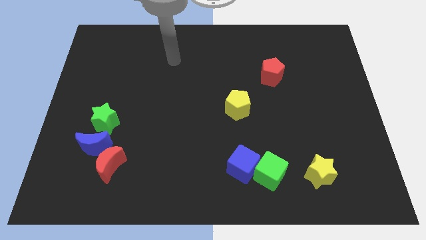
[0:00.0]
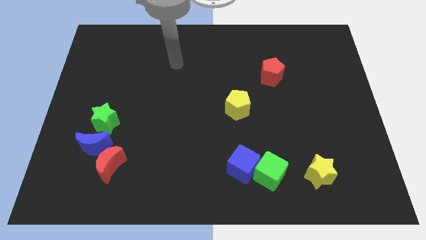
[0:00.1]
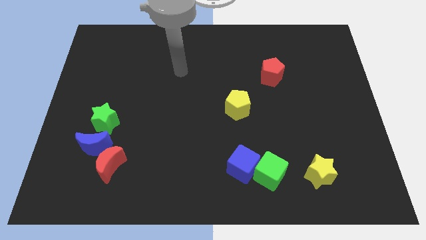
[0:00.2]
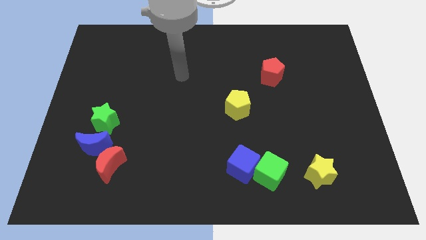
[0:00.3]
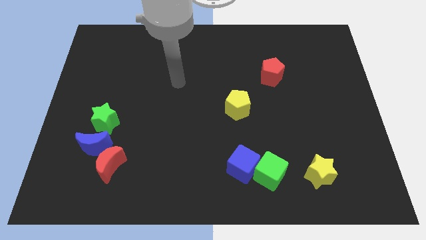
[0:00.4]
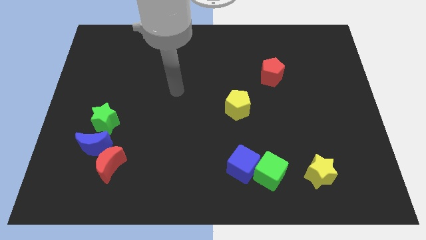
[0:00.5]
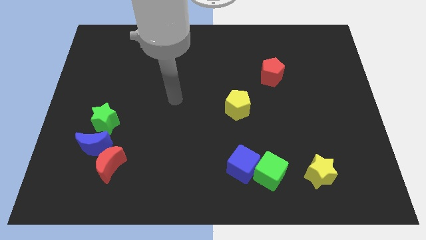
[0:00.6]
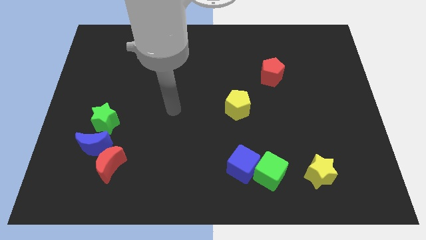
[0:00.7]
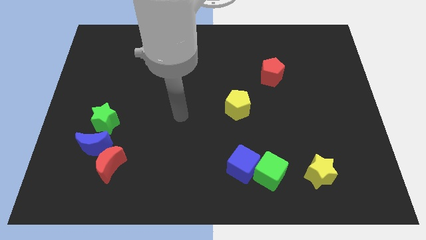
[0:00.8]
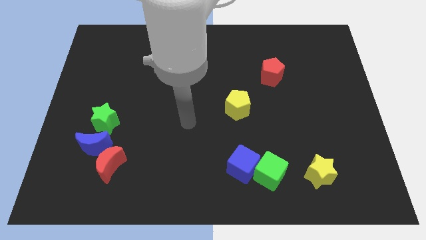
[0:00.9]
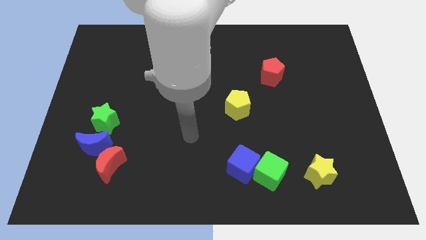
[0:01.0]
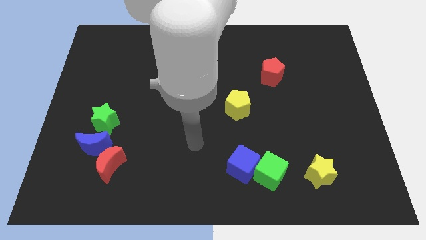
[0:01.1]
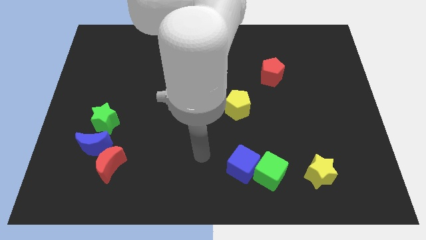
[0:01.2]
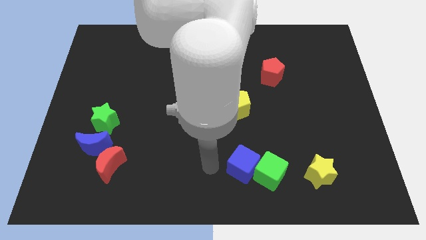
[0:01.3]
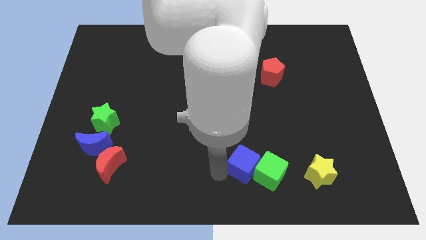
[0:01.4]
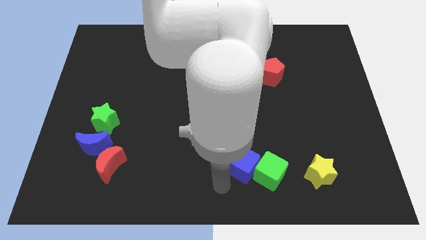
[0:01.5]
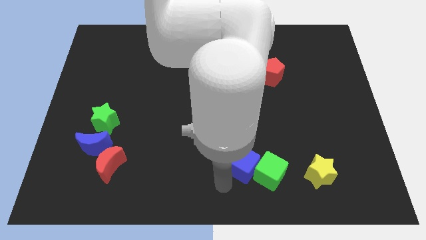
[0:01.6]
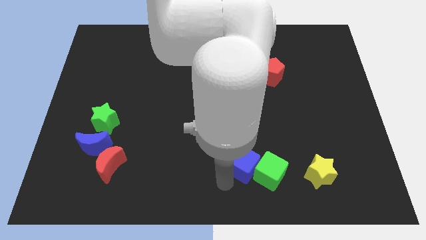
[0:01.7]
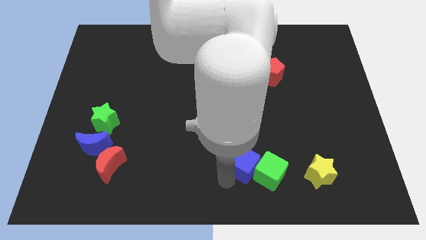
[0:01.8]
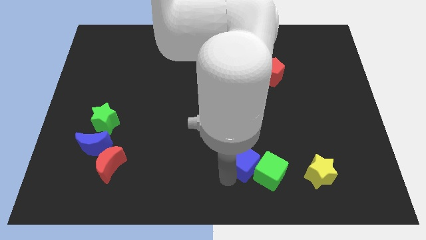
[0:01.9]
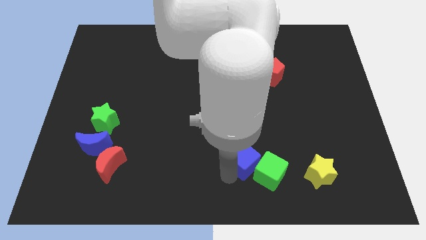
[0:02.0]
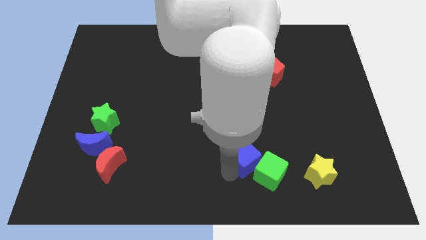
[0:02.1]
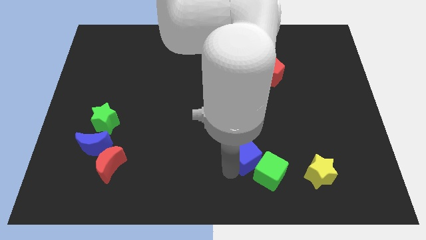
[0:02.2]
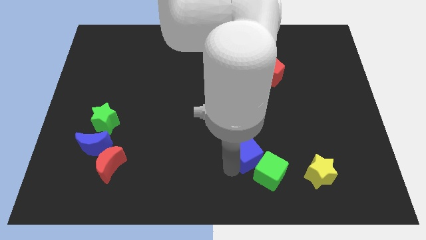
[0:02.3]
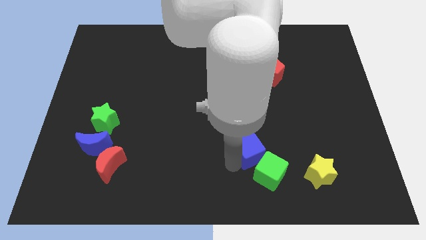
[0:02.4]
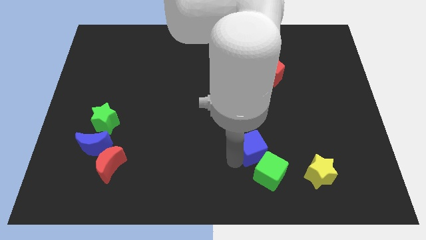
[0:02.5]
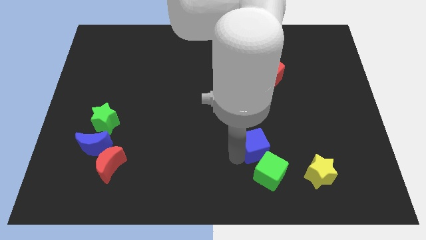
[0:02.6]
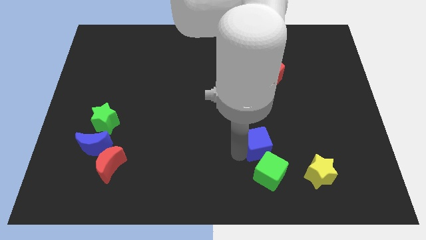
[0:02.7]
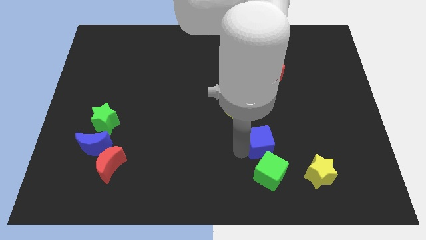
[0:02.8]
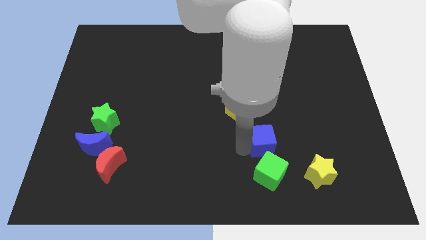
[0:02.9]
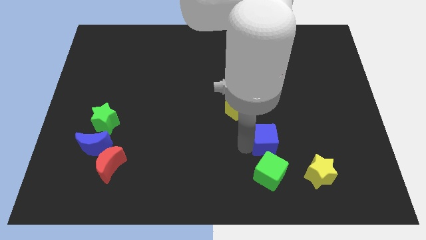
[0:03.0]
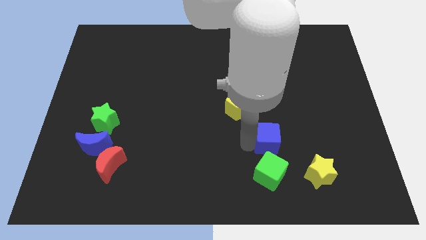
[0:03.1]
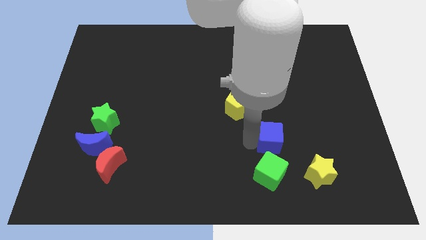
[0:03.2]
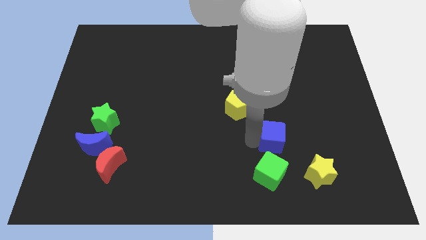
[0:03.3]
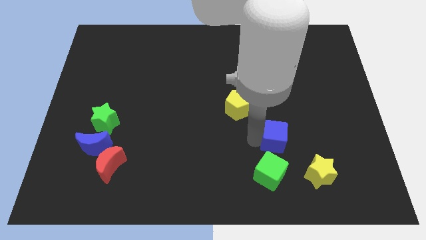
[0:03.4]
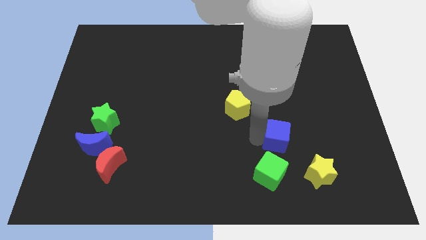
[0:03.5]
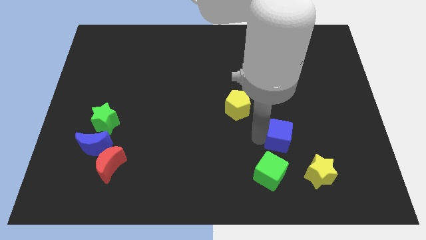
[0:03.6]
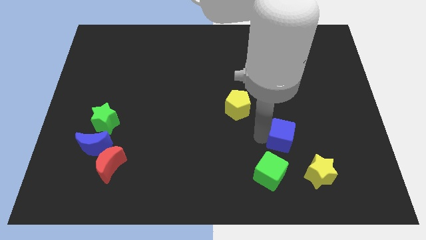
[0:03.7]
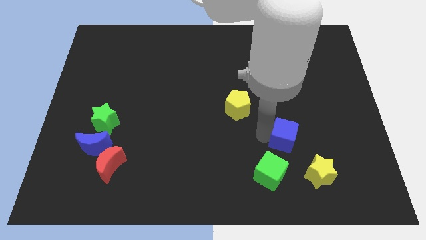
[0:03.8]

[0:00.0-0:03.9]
slide the blue cube a little right

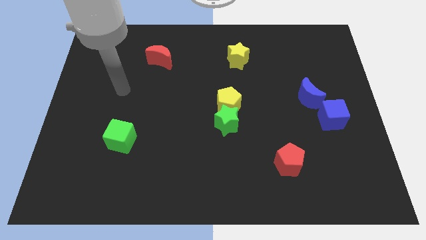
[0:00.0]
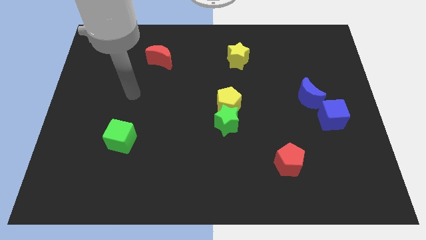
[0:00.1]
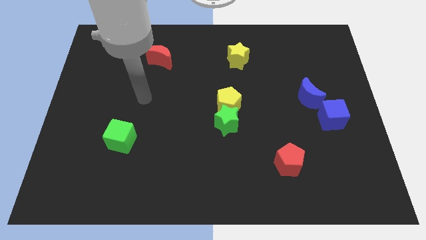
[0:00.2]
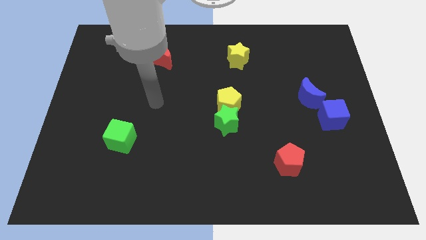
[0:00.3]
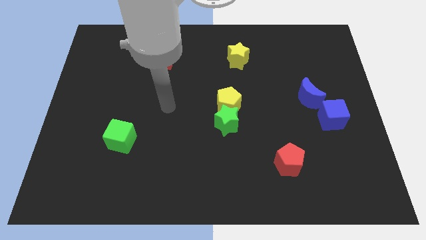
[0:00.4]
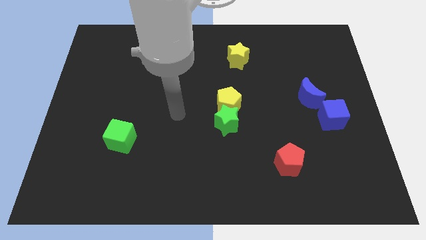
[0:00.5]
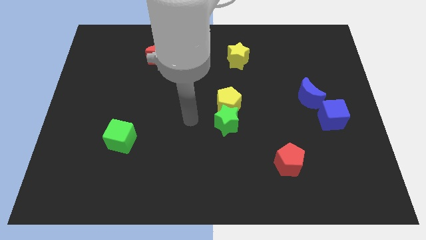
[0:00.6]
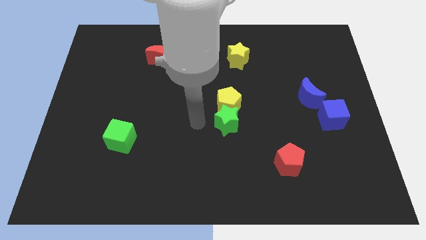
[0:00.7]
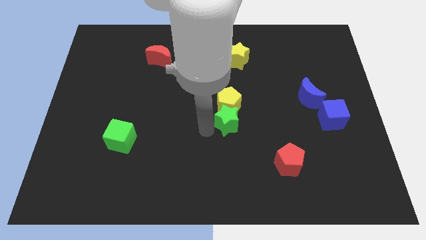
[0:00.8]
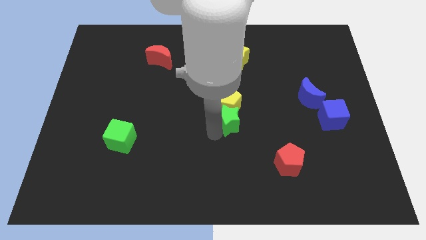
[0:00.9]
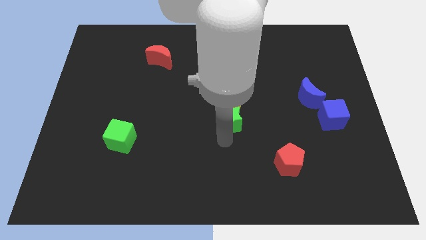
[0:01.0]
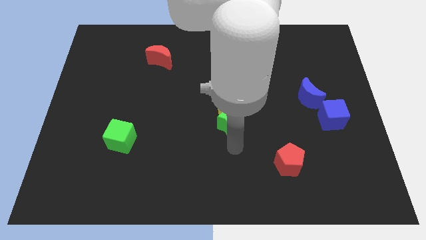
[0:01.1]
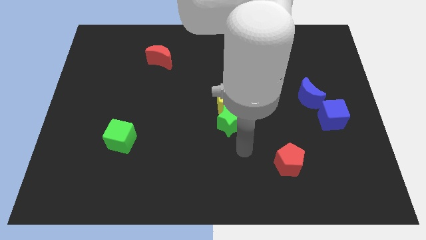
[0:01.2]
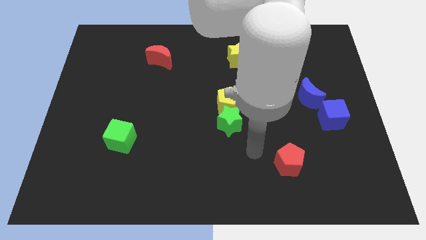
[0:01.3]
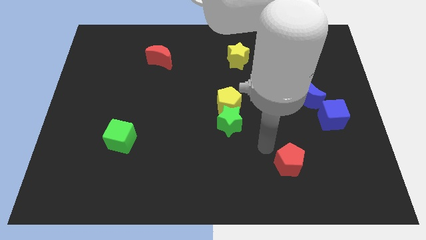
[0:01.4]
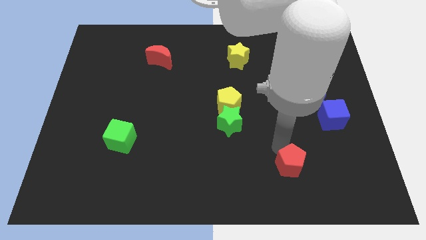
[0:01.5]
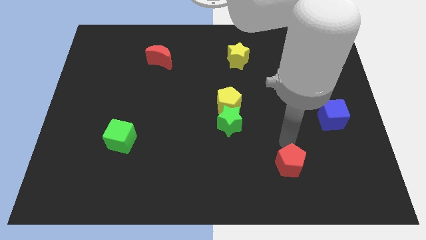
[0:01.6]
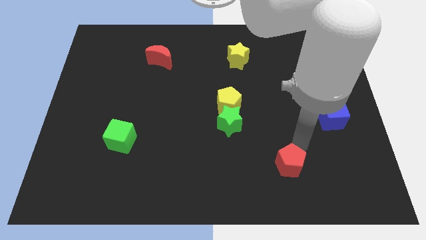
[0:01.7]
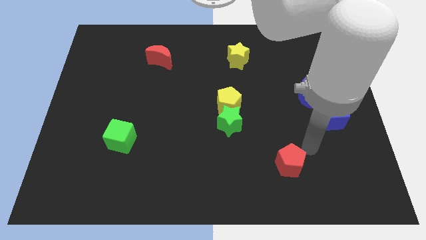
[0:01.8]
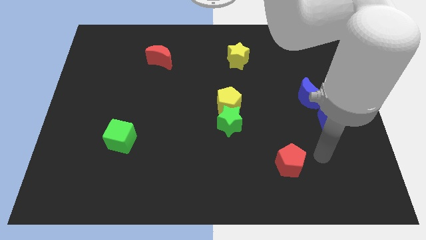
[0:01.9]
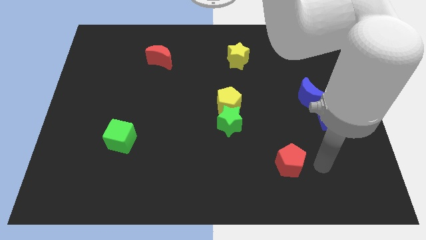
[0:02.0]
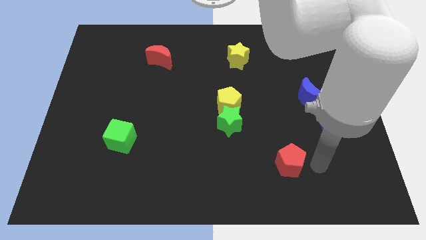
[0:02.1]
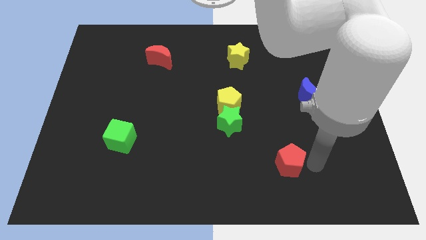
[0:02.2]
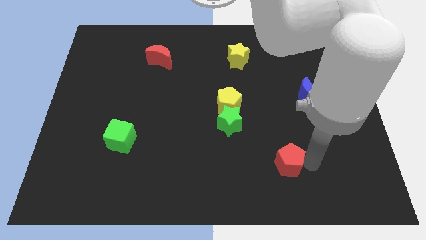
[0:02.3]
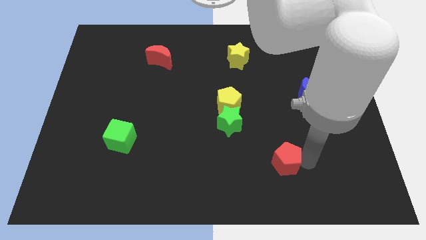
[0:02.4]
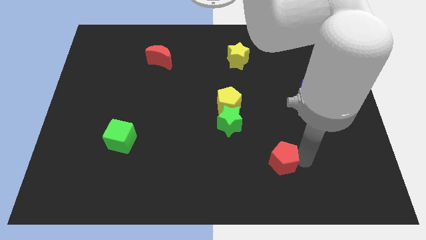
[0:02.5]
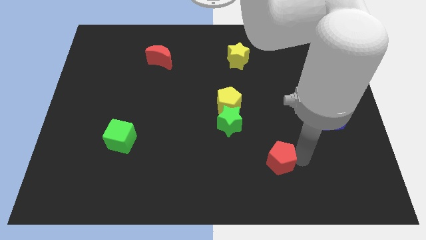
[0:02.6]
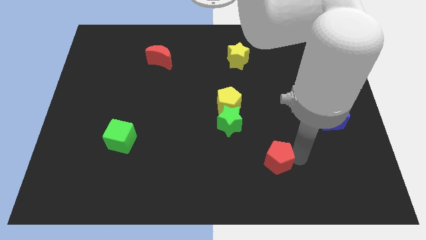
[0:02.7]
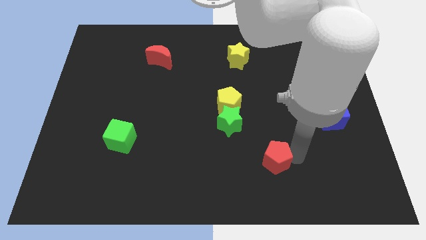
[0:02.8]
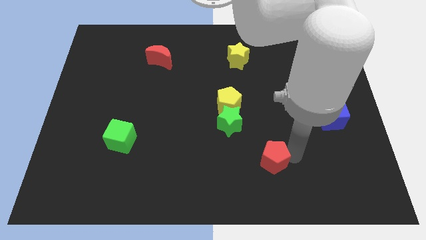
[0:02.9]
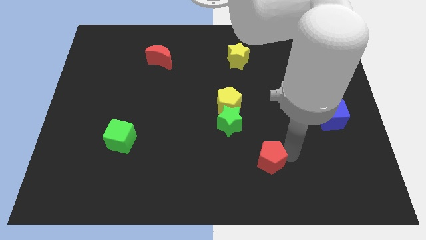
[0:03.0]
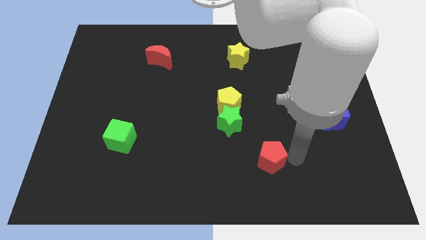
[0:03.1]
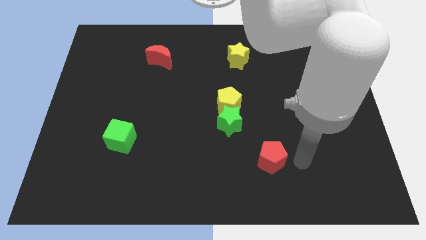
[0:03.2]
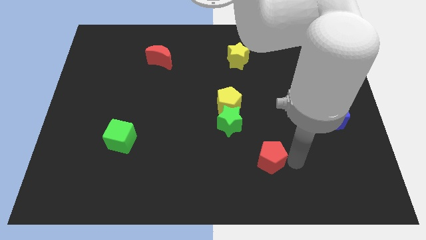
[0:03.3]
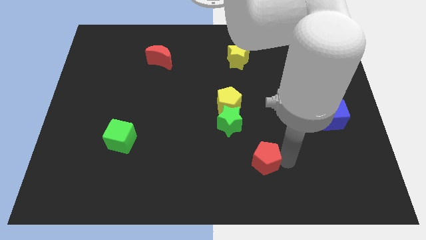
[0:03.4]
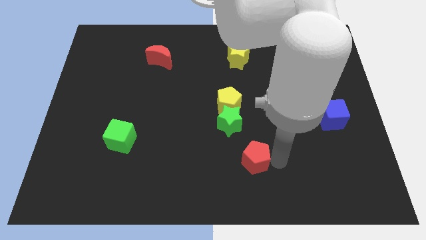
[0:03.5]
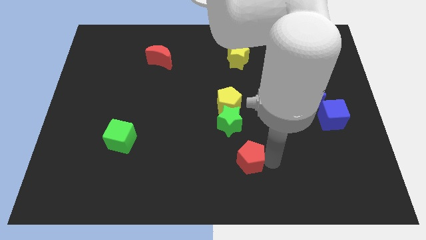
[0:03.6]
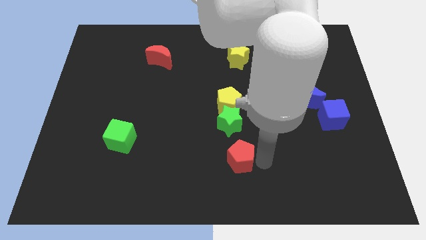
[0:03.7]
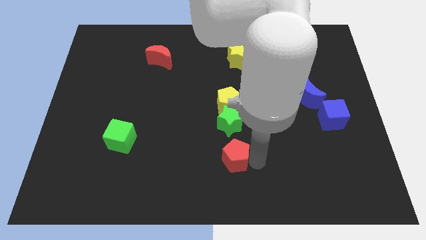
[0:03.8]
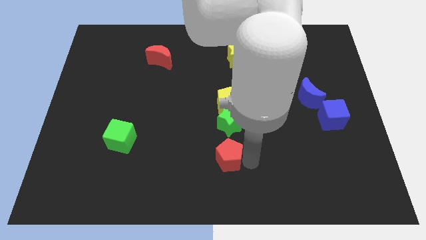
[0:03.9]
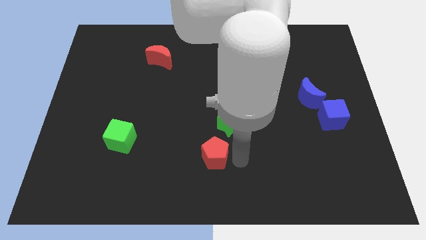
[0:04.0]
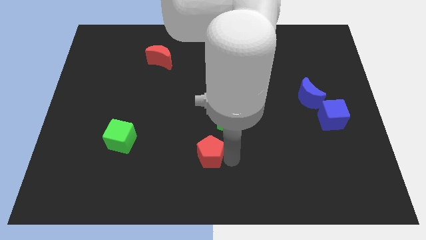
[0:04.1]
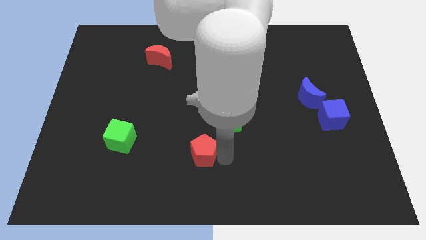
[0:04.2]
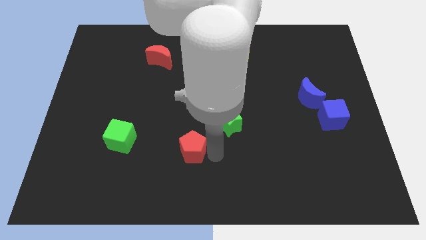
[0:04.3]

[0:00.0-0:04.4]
push the red pentagon left
